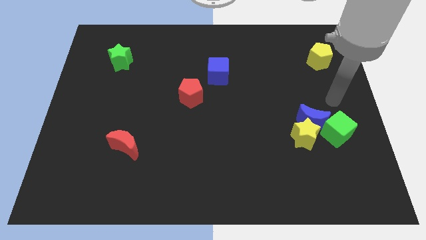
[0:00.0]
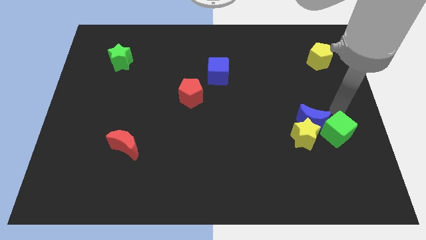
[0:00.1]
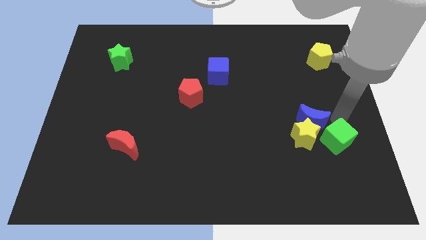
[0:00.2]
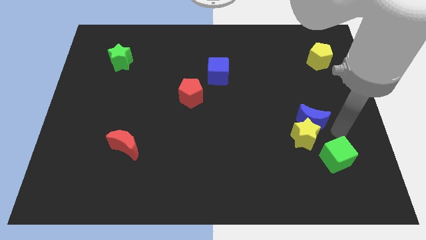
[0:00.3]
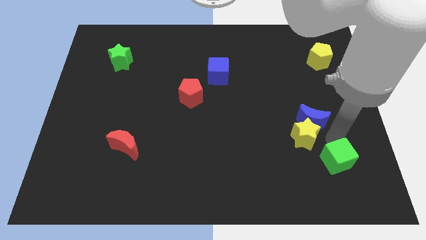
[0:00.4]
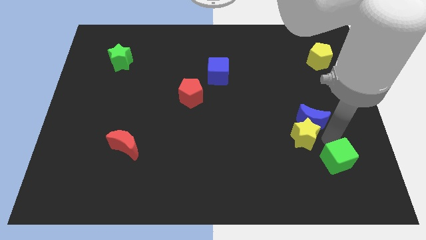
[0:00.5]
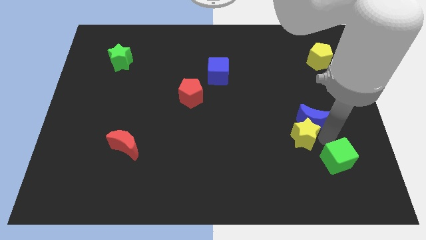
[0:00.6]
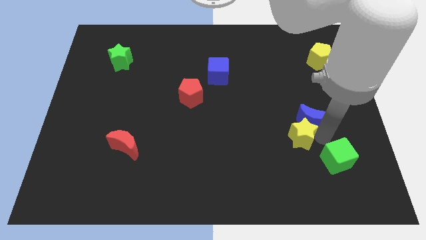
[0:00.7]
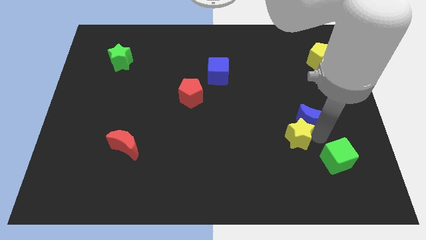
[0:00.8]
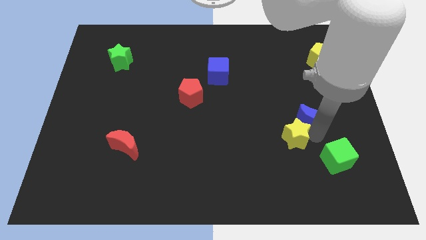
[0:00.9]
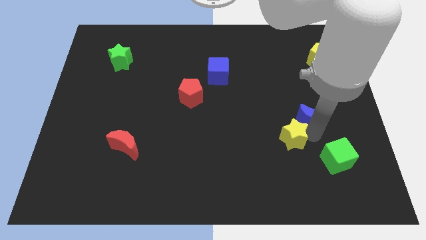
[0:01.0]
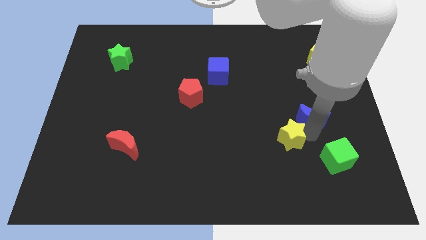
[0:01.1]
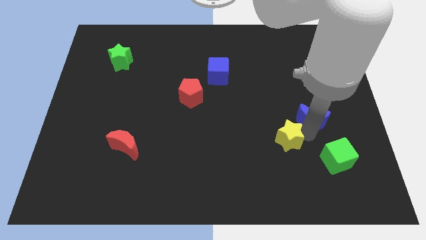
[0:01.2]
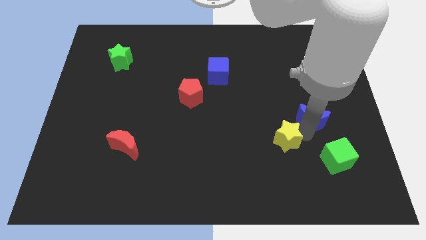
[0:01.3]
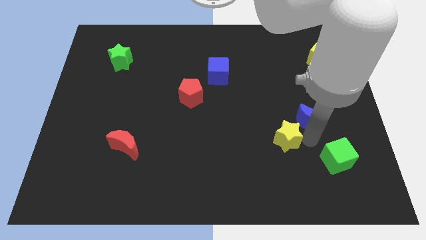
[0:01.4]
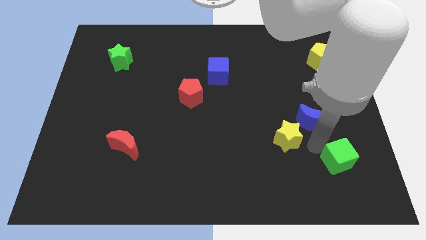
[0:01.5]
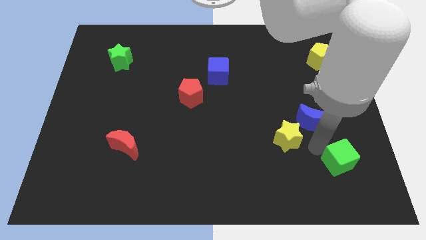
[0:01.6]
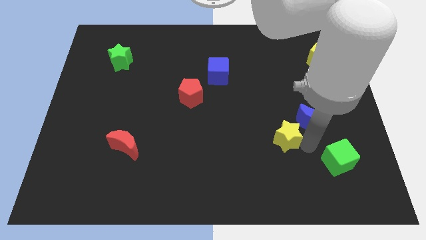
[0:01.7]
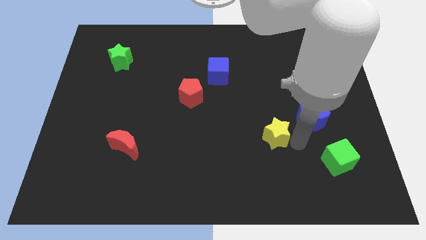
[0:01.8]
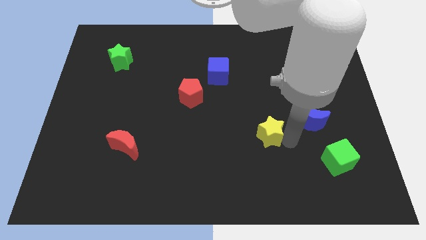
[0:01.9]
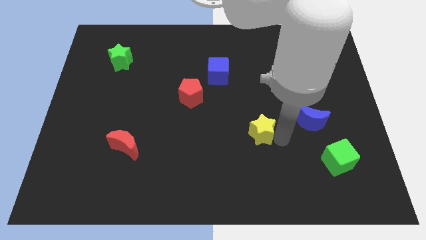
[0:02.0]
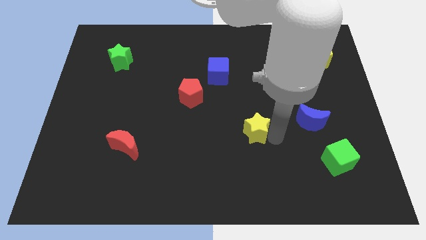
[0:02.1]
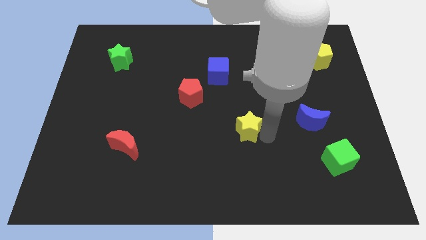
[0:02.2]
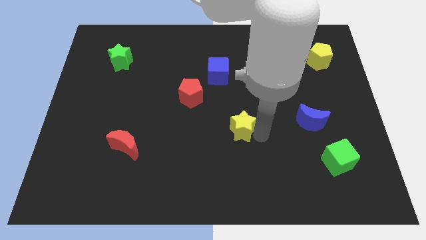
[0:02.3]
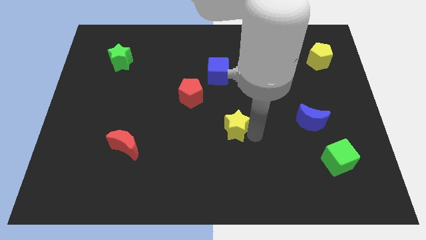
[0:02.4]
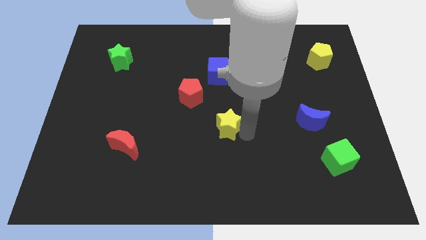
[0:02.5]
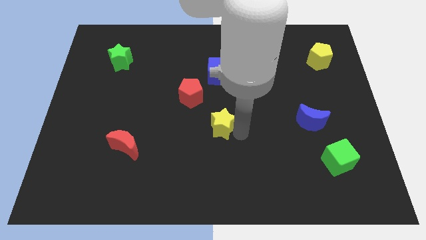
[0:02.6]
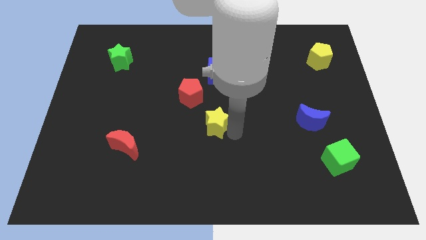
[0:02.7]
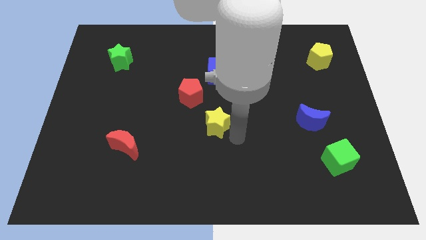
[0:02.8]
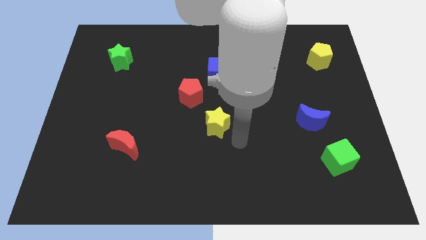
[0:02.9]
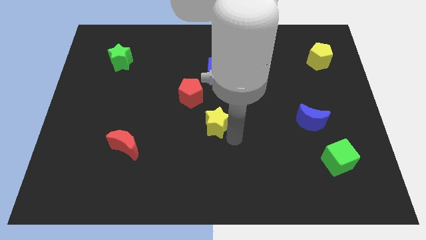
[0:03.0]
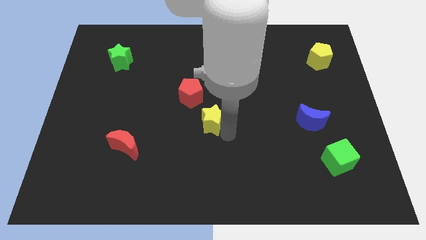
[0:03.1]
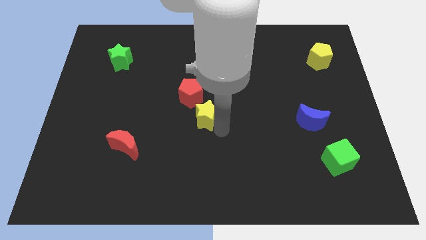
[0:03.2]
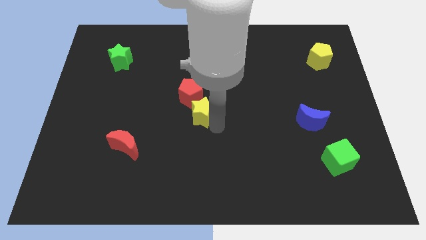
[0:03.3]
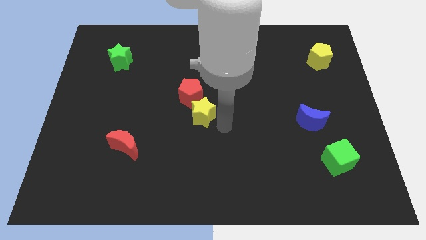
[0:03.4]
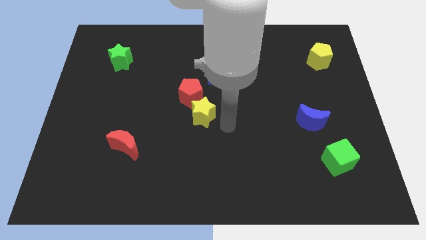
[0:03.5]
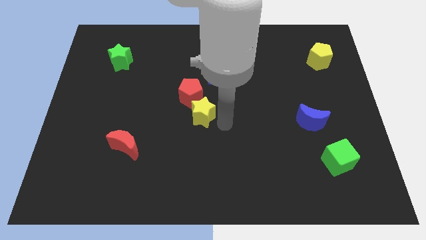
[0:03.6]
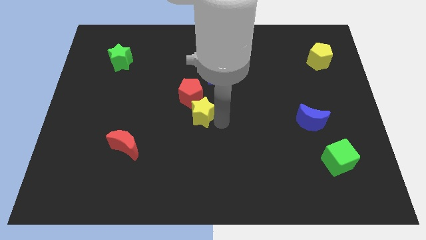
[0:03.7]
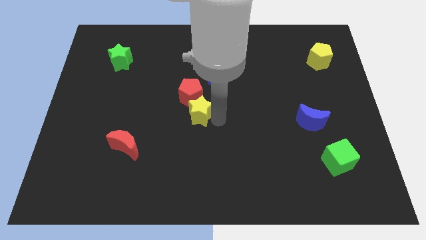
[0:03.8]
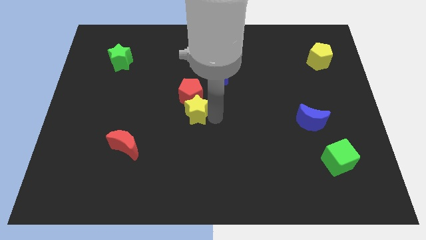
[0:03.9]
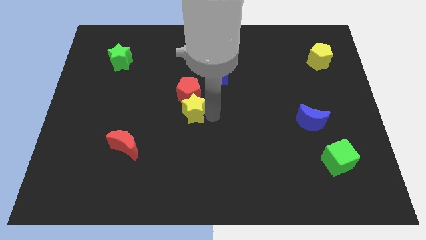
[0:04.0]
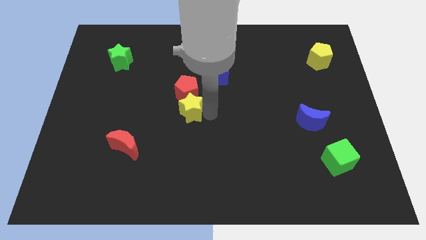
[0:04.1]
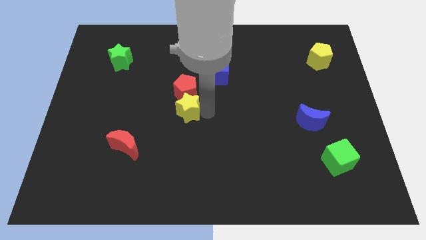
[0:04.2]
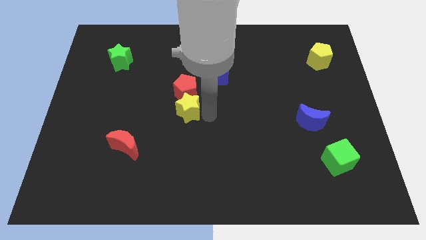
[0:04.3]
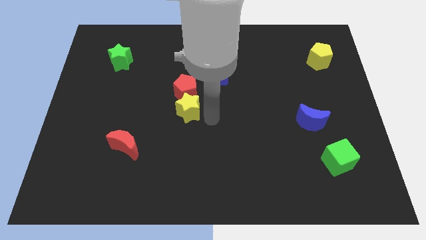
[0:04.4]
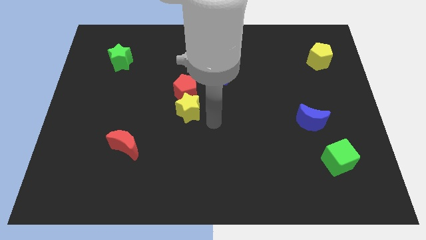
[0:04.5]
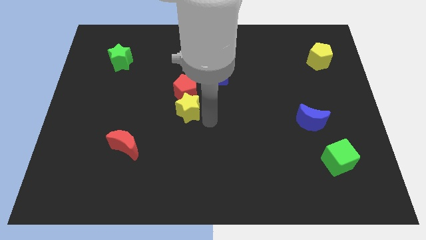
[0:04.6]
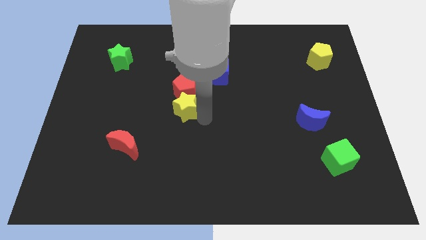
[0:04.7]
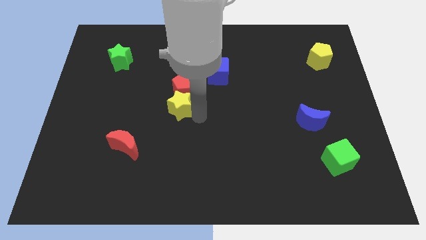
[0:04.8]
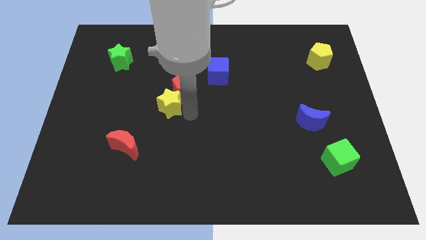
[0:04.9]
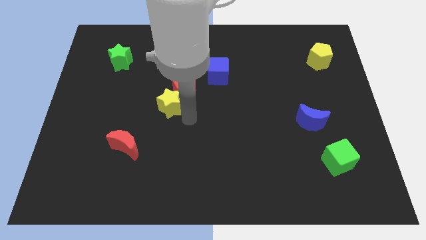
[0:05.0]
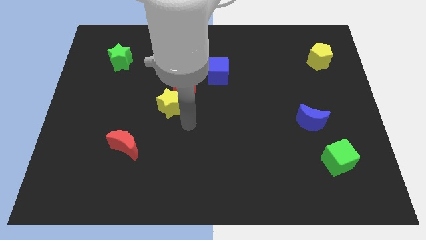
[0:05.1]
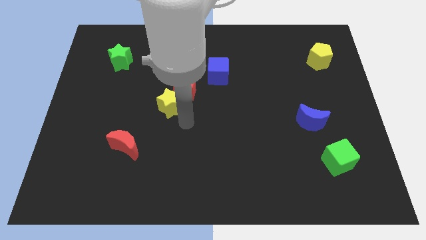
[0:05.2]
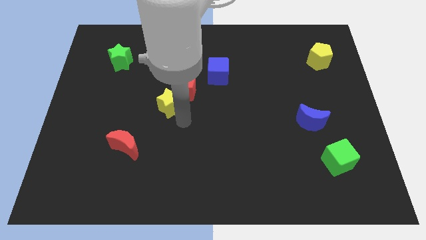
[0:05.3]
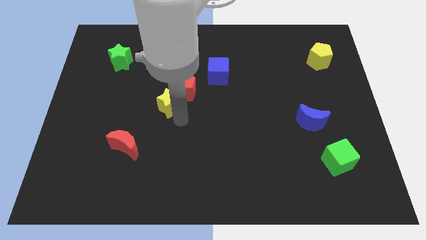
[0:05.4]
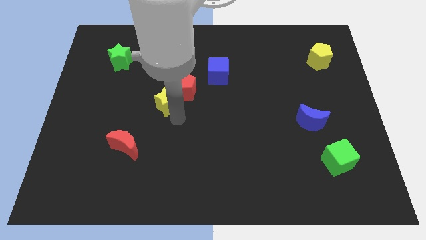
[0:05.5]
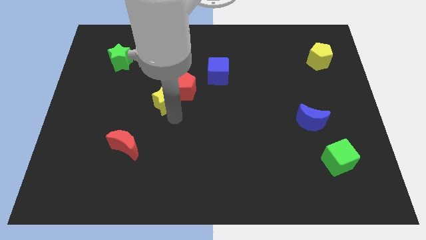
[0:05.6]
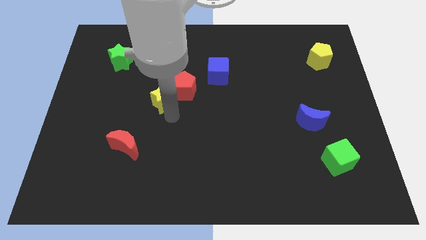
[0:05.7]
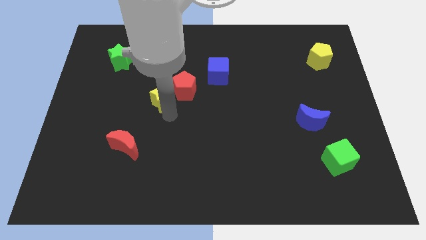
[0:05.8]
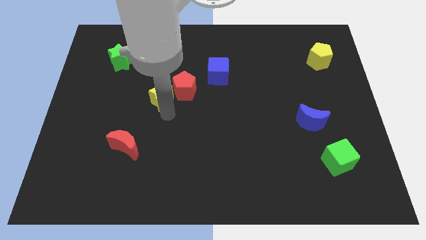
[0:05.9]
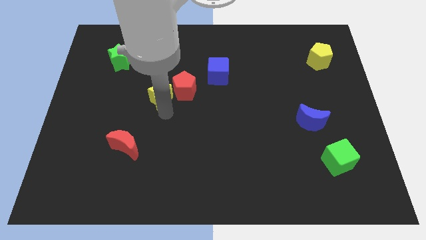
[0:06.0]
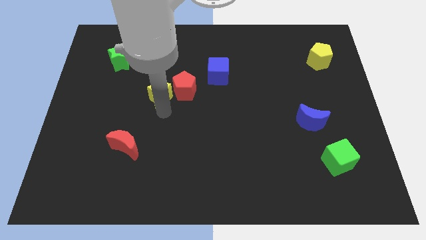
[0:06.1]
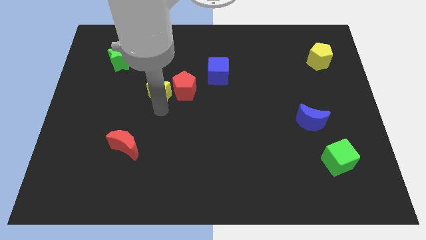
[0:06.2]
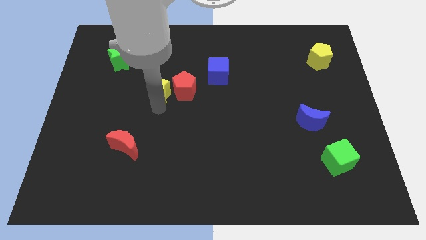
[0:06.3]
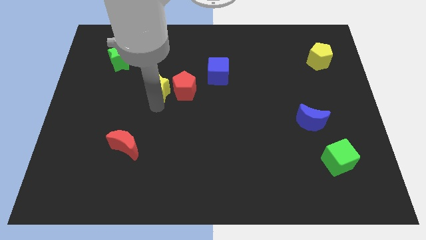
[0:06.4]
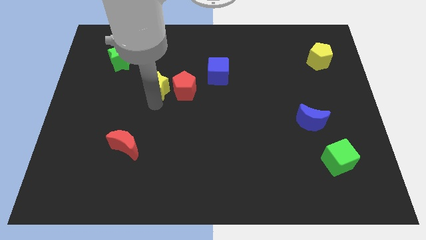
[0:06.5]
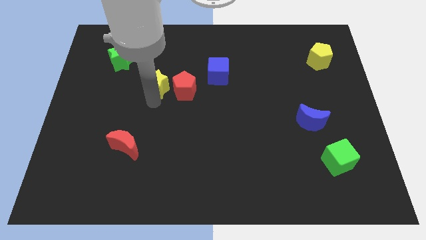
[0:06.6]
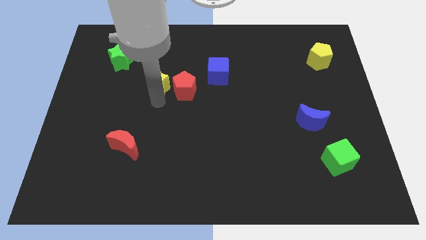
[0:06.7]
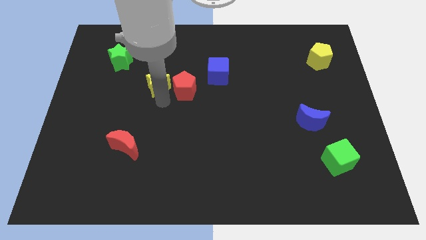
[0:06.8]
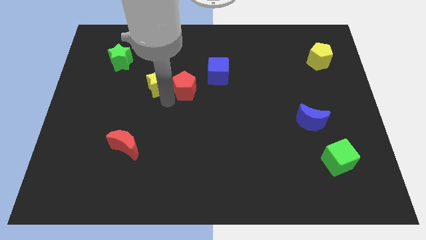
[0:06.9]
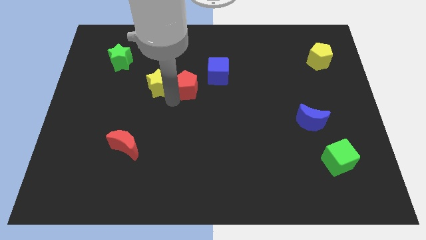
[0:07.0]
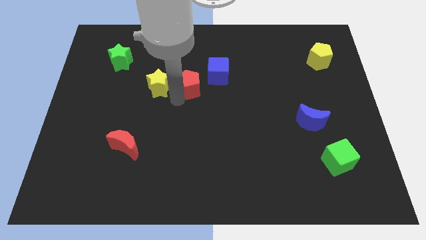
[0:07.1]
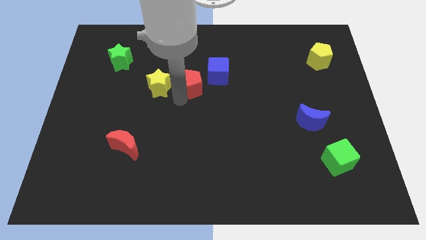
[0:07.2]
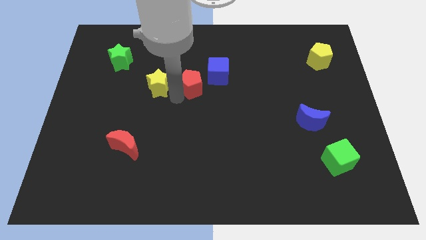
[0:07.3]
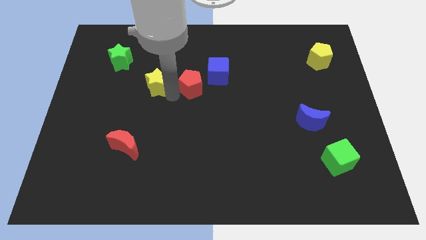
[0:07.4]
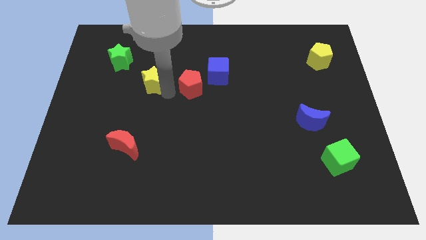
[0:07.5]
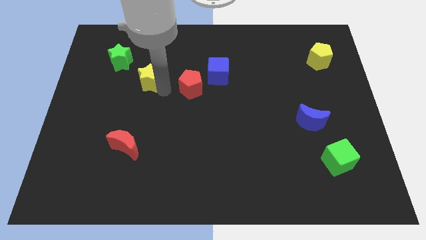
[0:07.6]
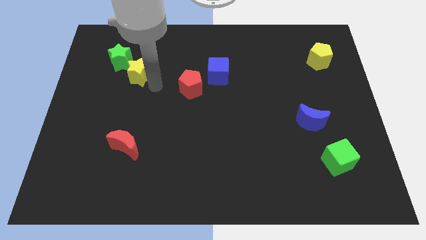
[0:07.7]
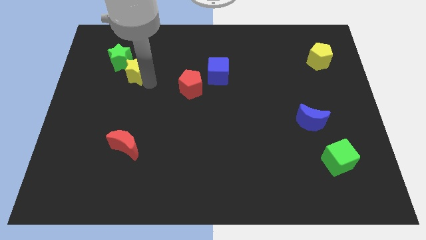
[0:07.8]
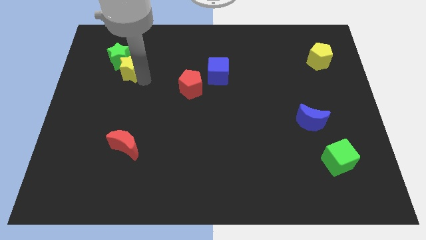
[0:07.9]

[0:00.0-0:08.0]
push the yellow star next to the green star
